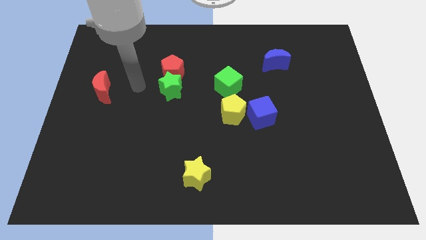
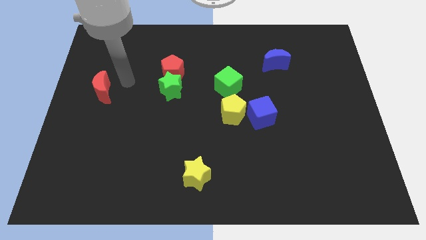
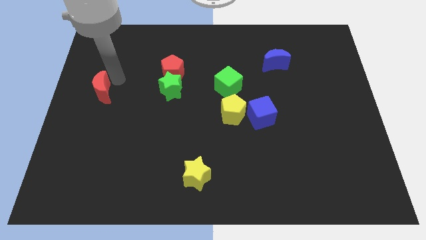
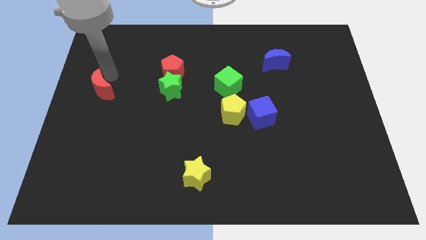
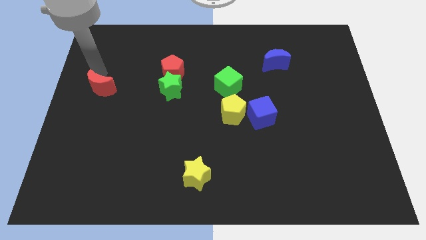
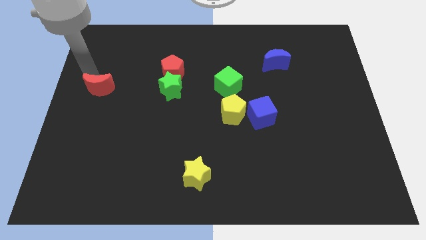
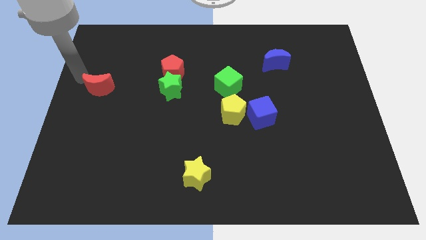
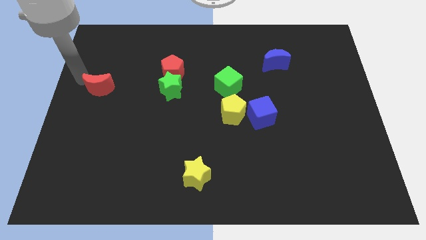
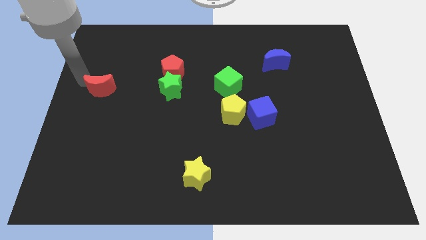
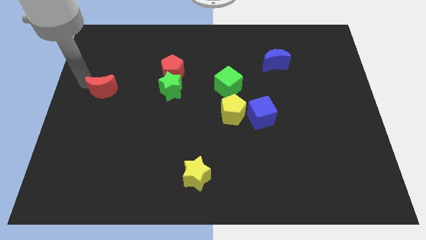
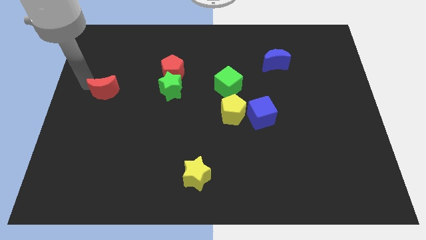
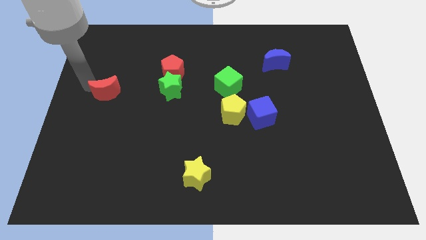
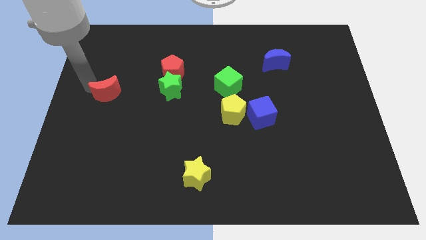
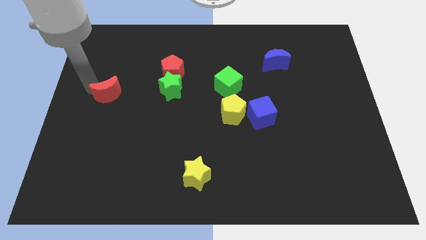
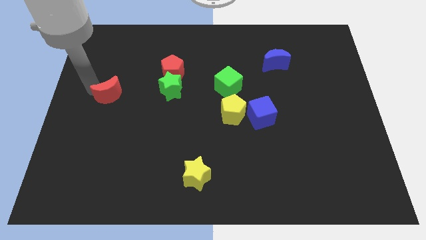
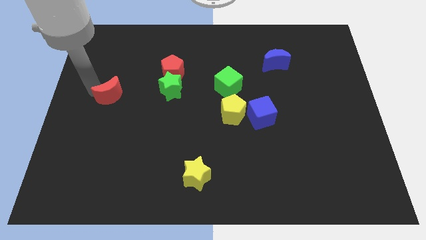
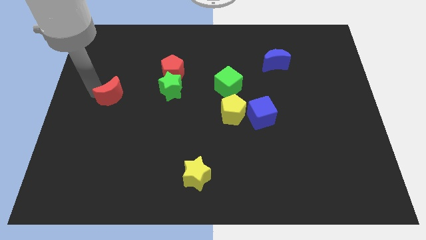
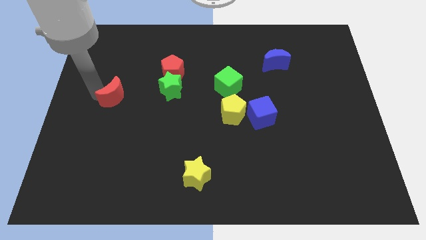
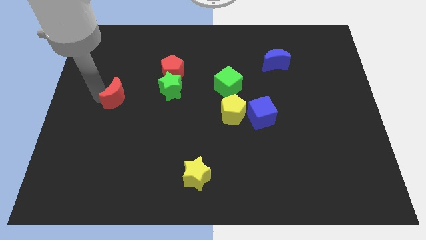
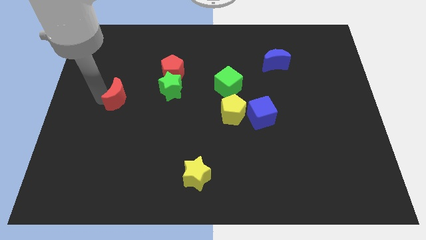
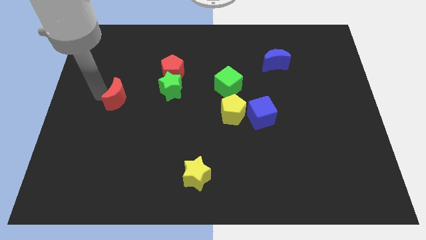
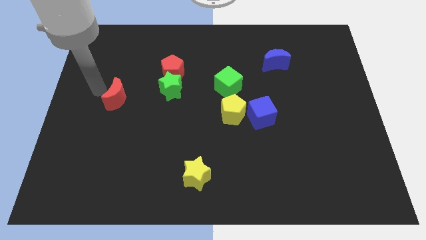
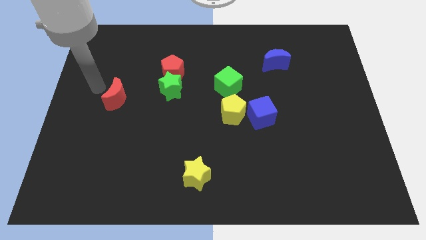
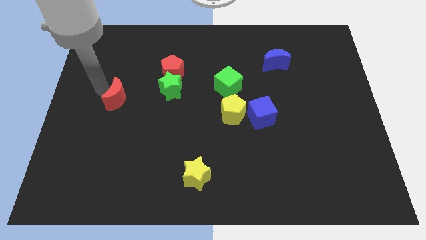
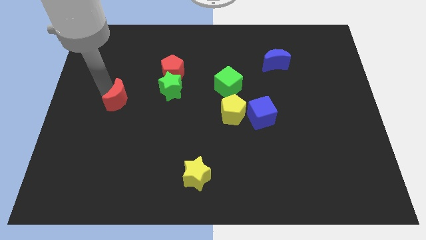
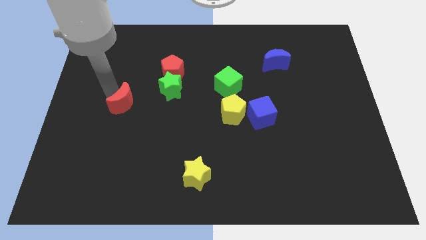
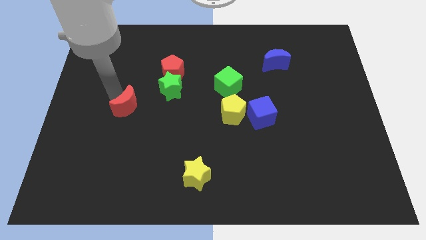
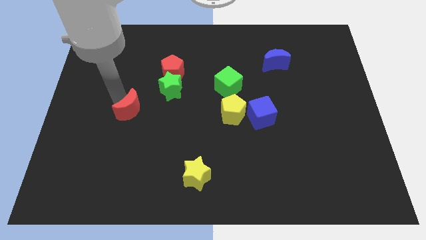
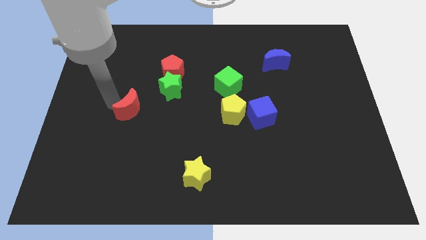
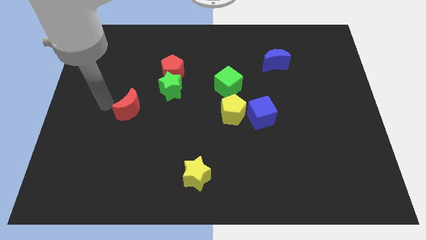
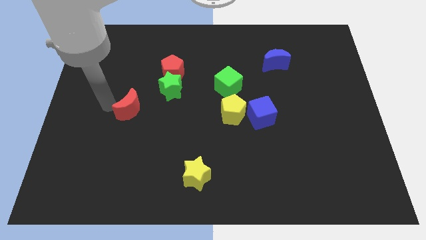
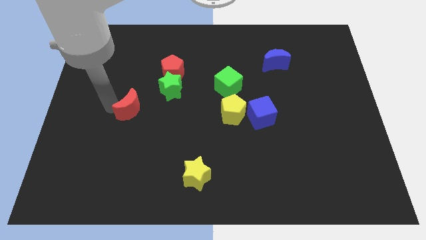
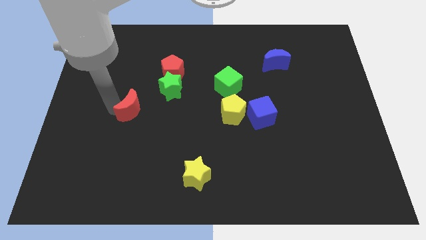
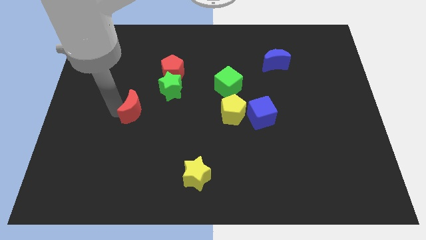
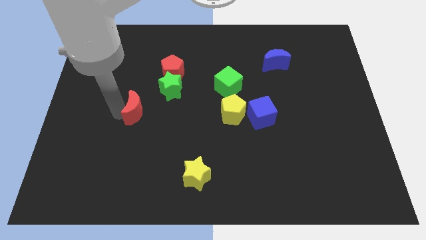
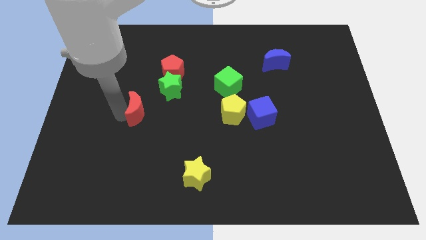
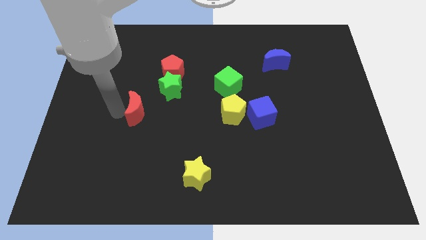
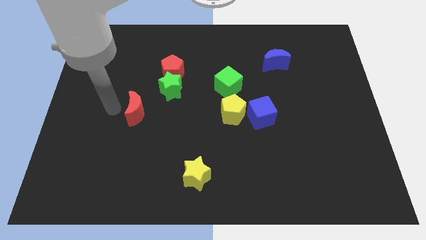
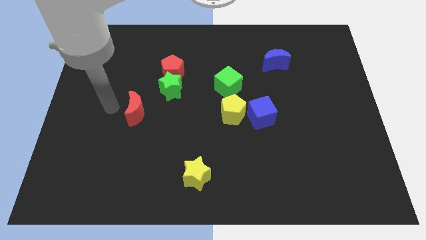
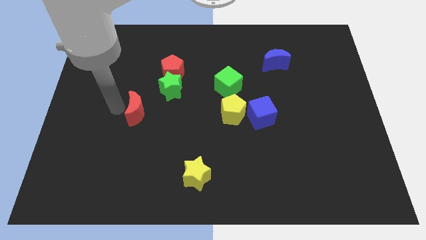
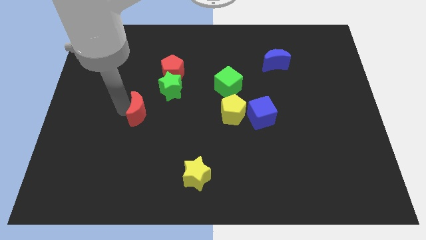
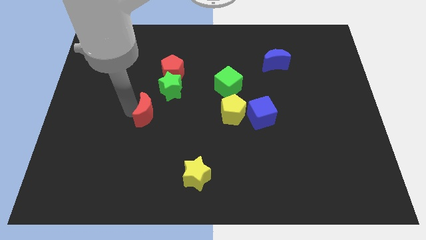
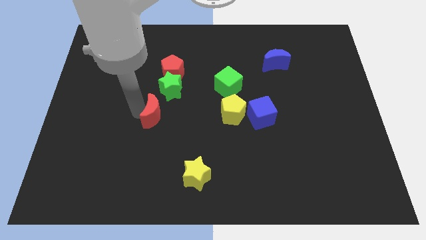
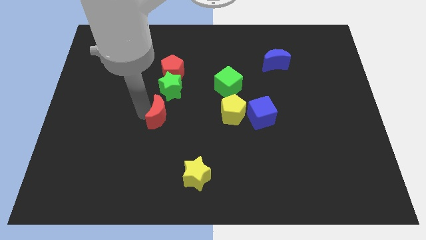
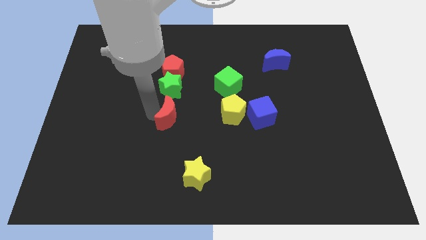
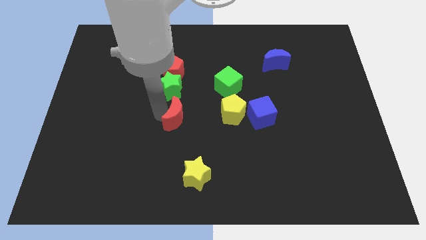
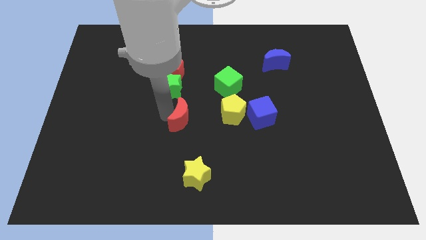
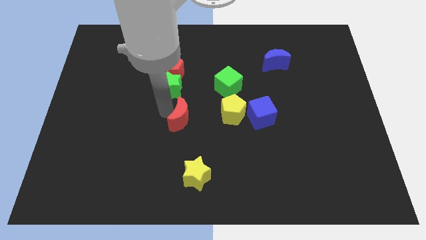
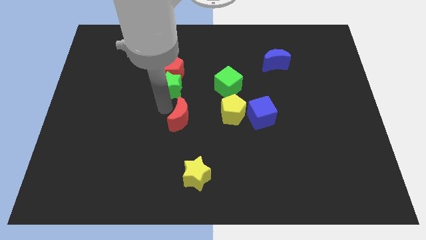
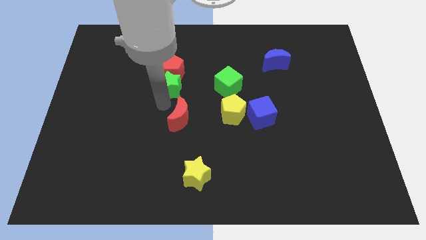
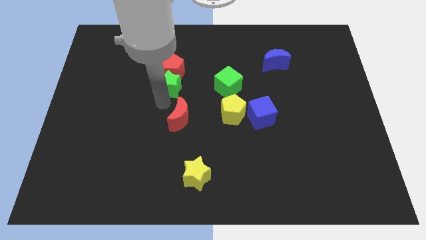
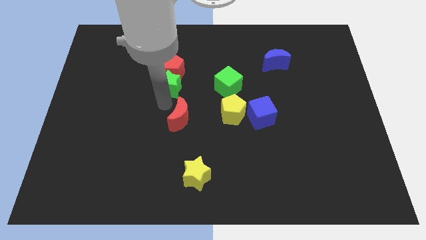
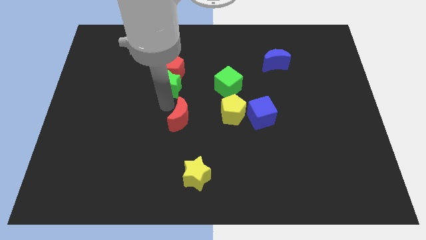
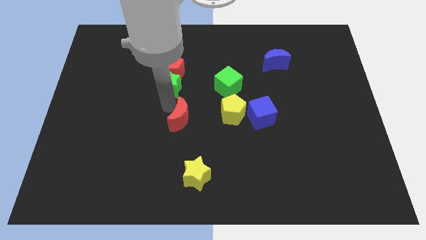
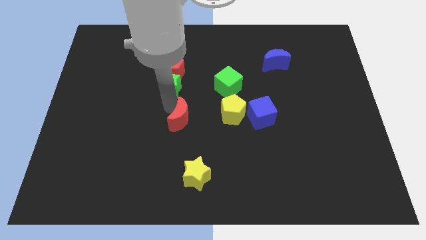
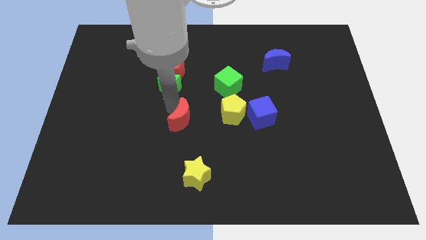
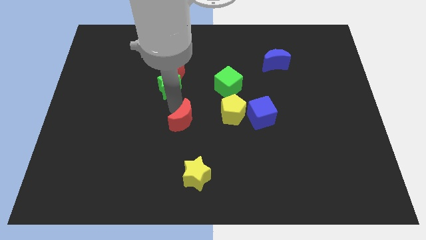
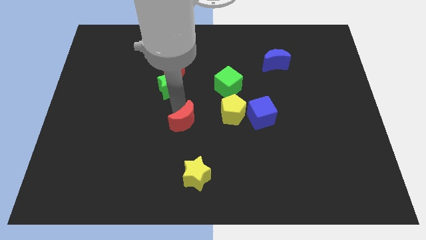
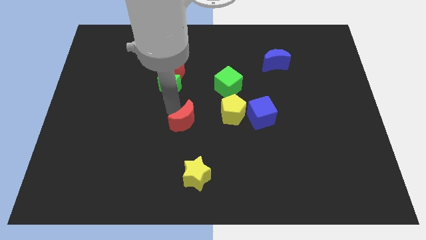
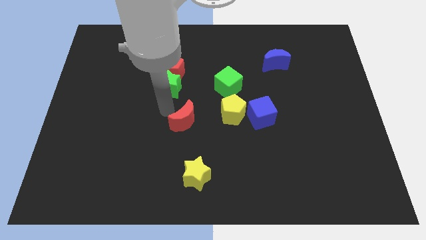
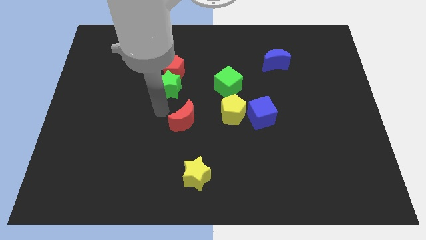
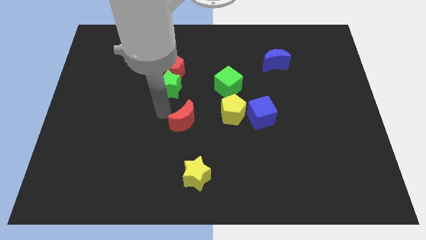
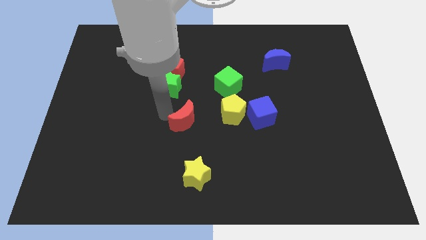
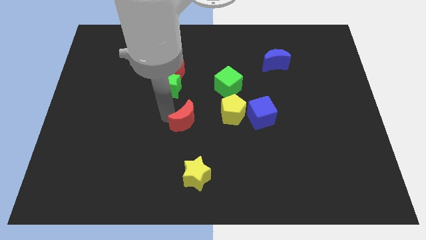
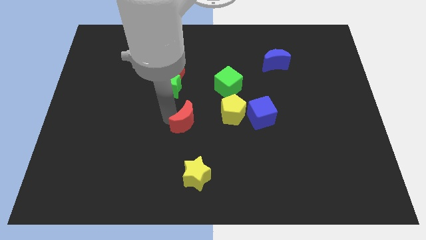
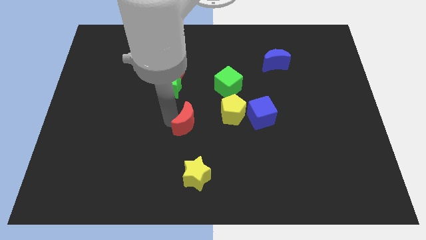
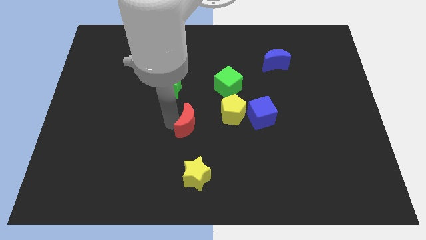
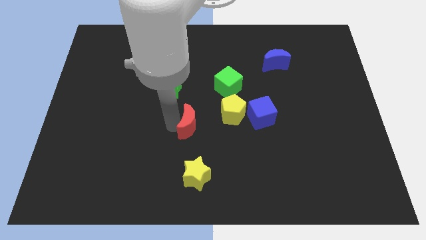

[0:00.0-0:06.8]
slide the red moon diagonally down and to the left of the yellow pentagon

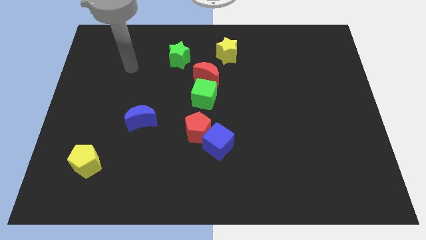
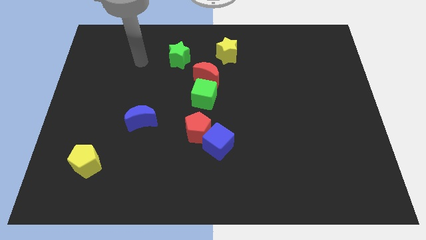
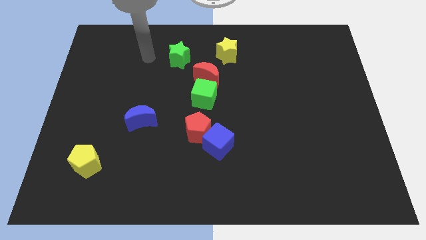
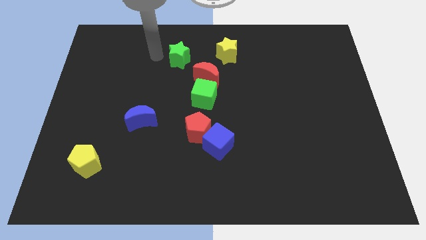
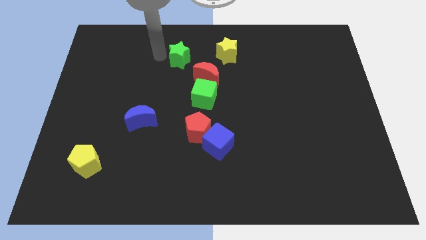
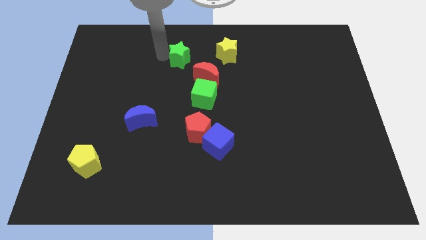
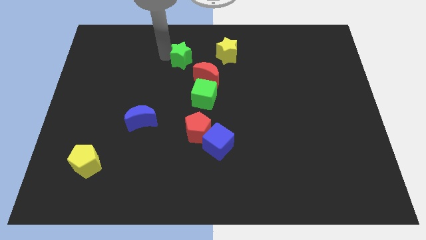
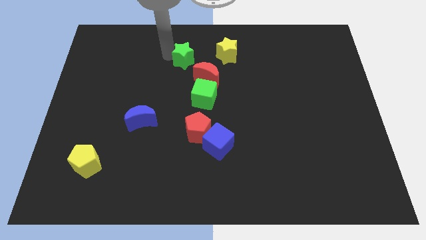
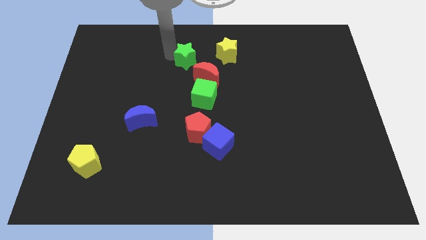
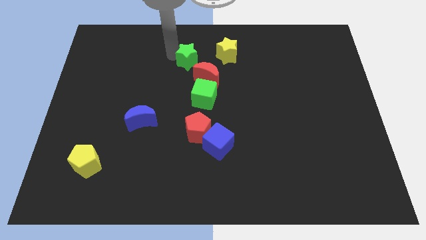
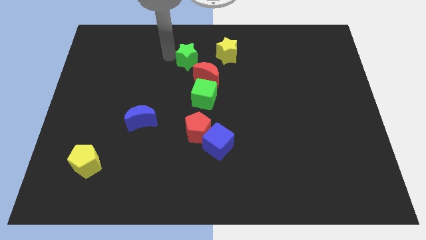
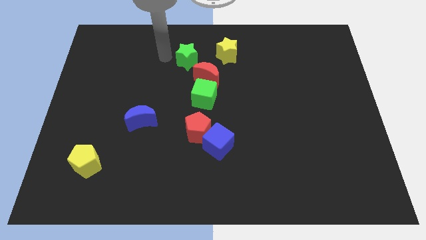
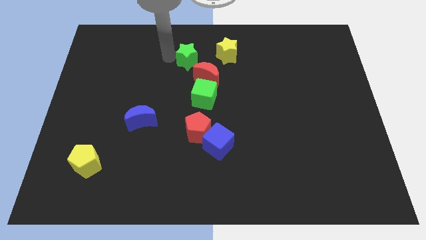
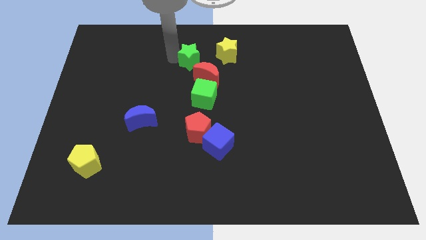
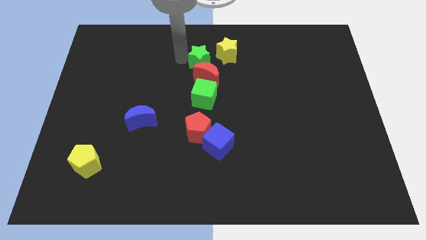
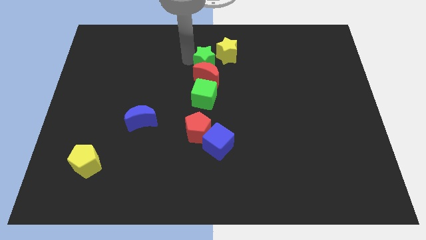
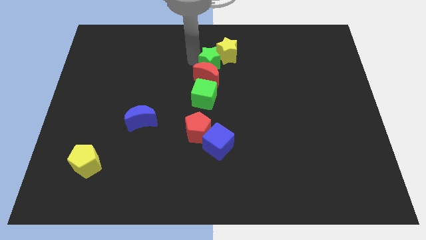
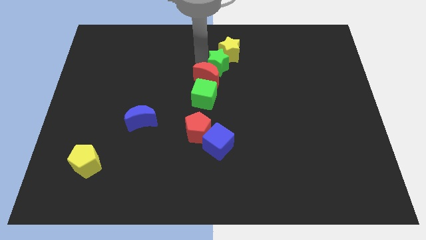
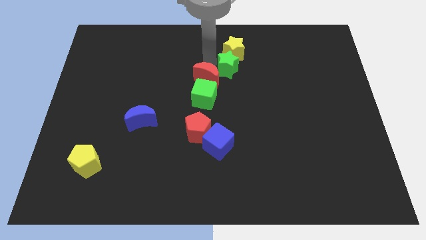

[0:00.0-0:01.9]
slide the green star to the bottom right side of the yellow star
